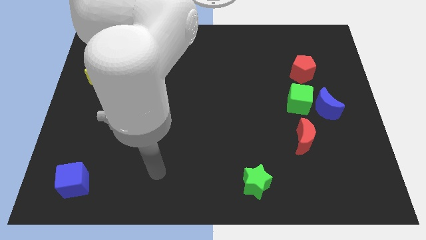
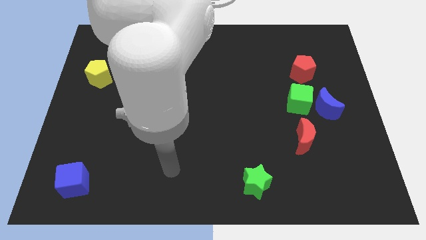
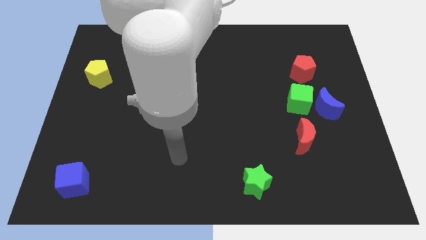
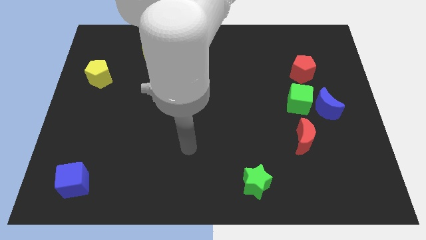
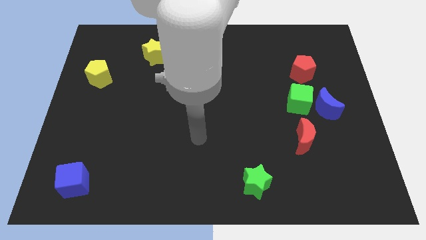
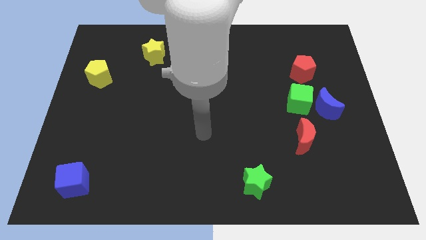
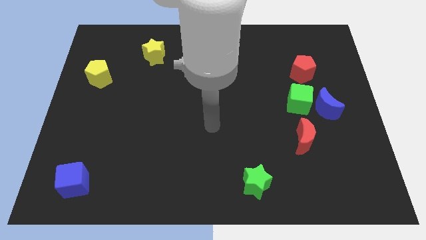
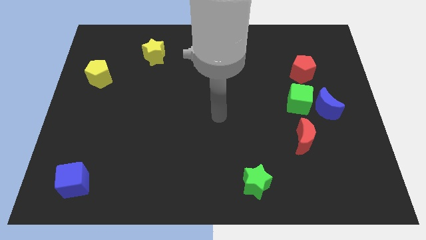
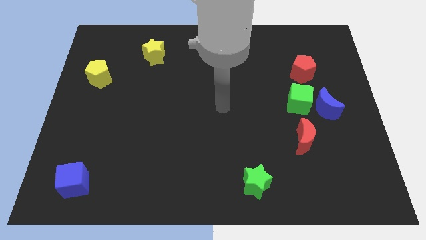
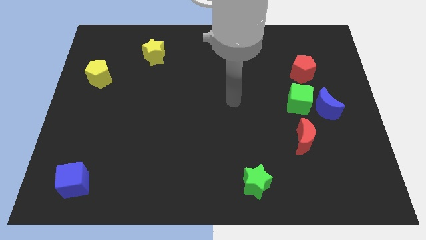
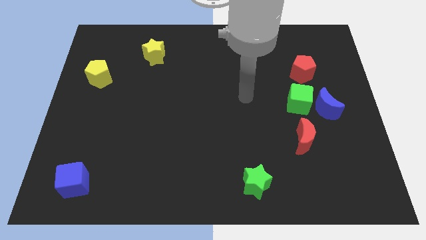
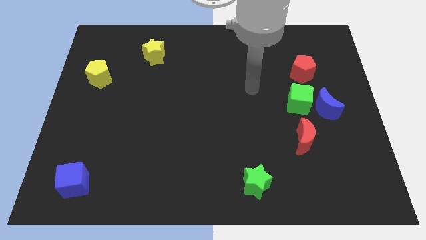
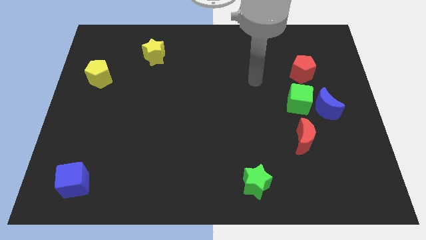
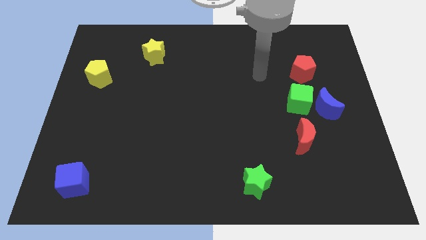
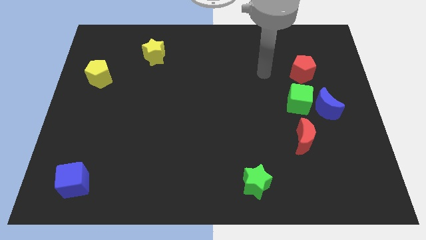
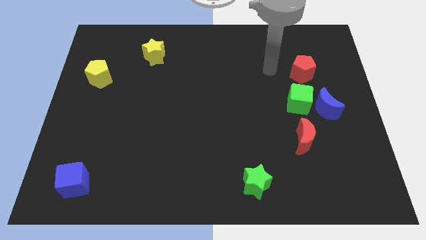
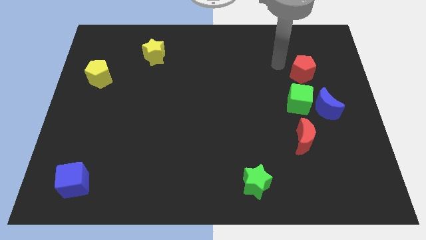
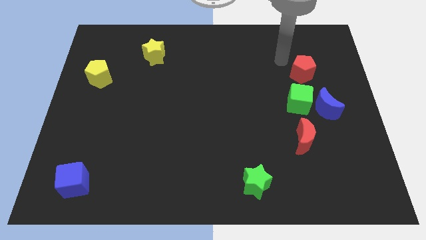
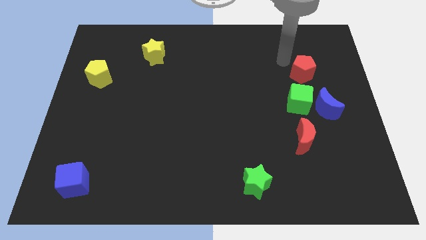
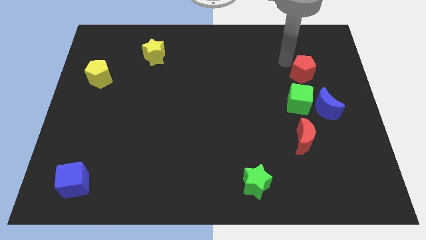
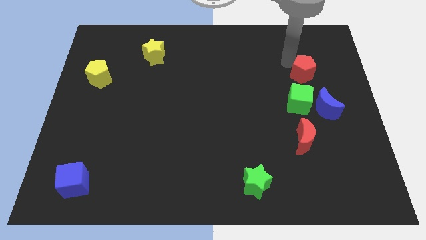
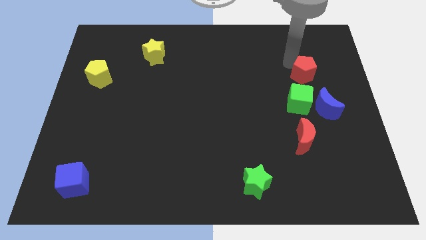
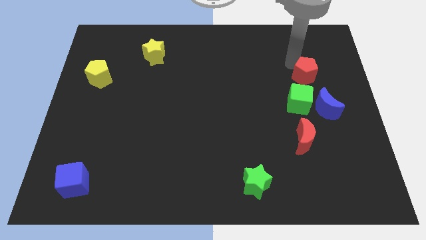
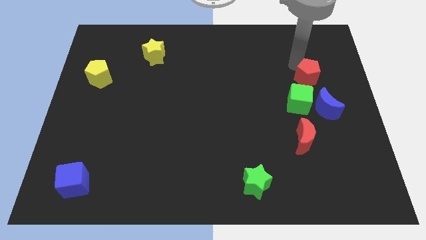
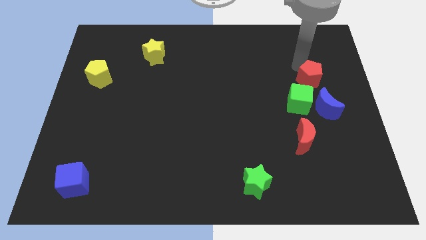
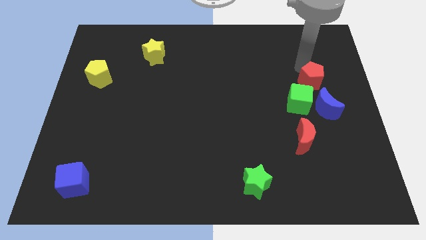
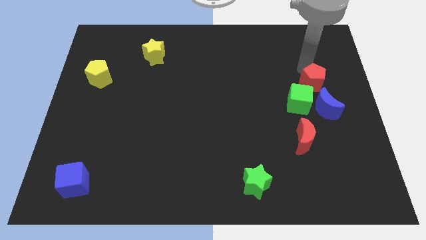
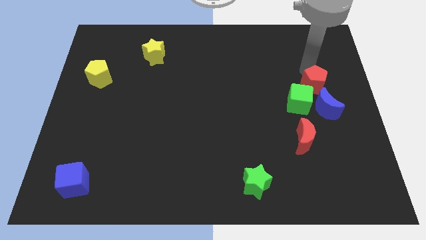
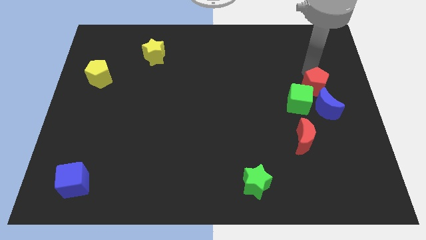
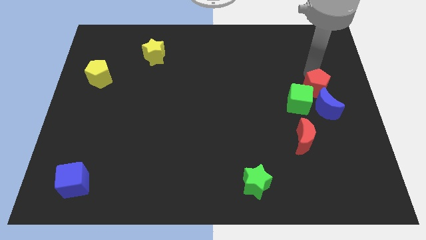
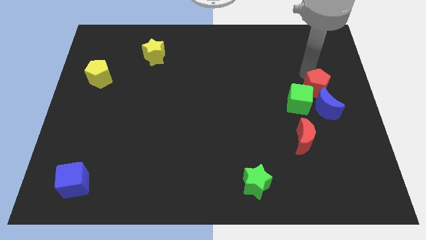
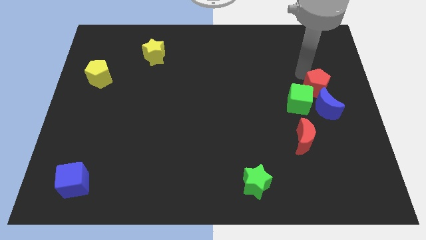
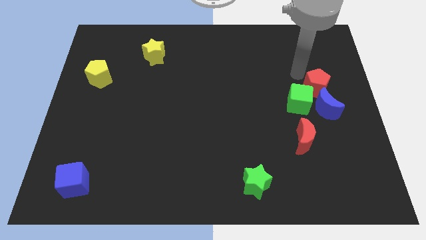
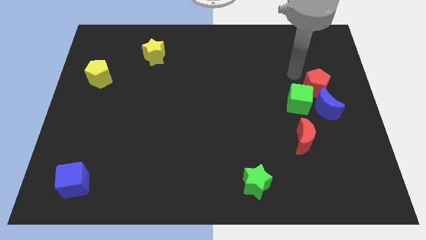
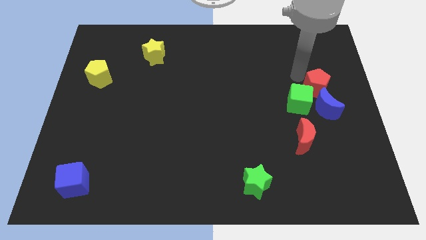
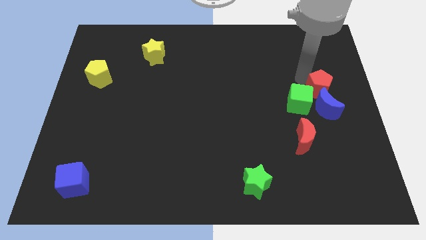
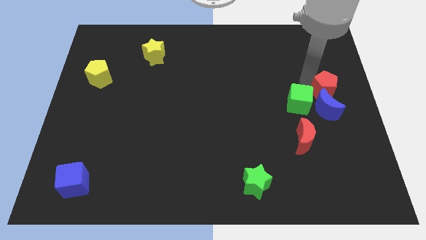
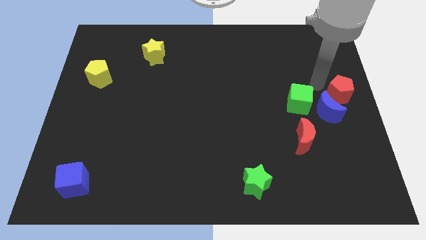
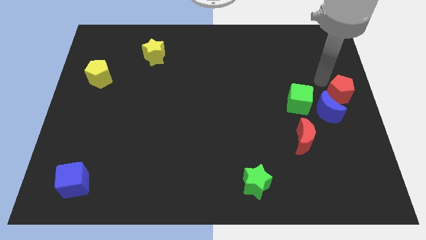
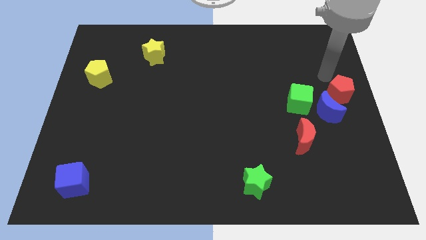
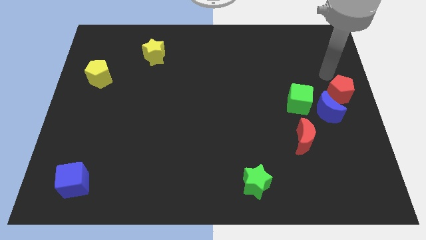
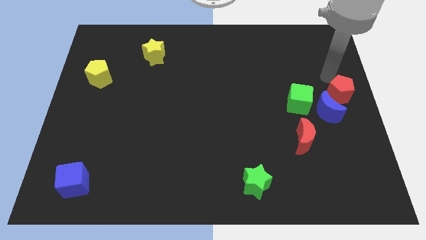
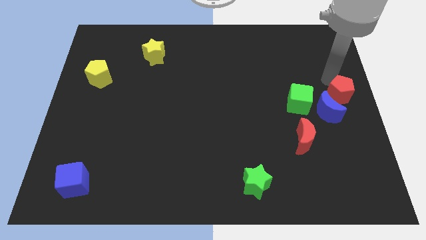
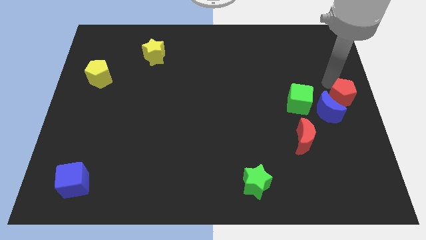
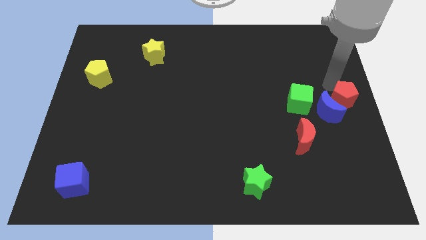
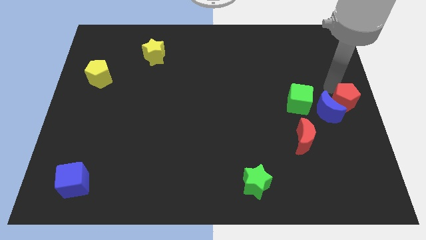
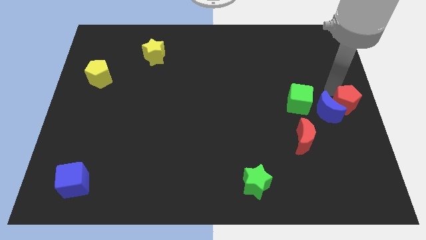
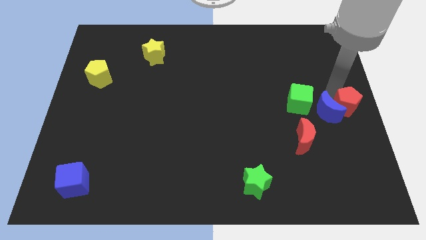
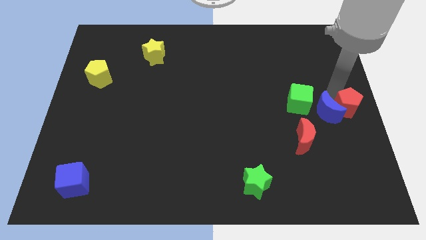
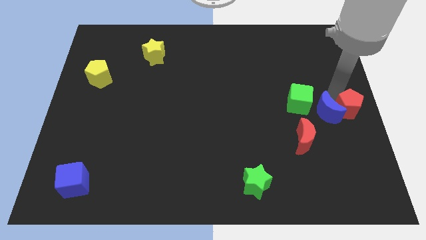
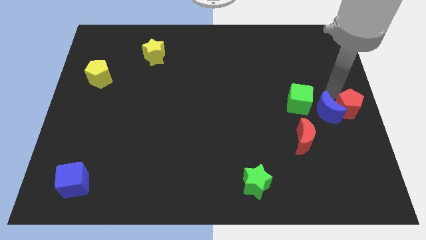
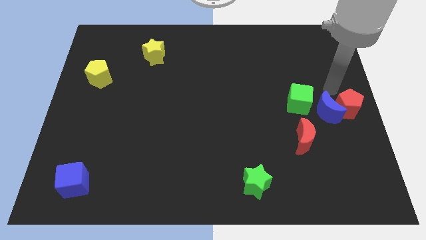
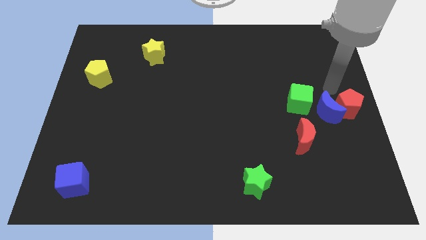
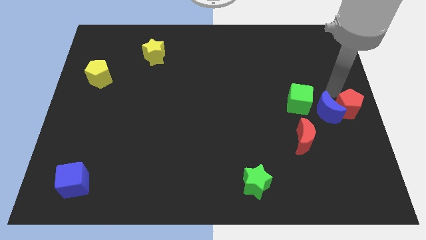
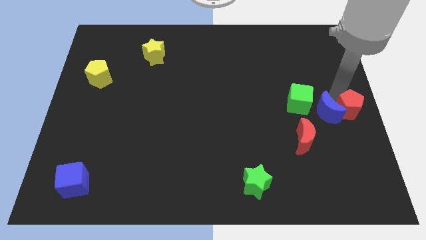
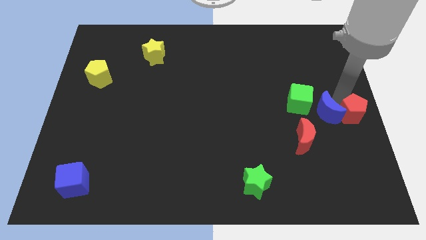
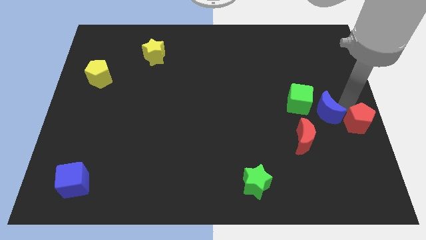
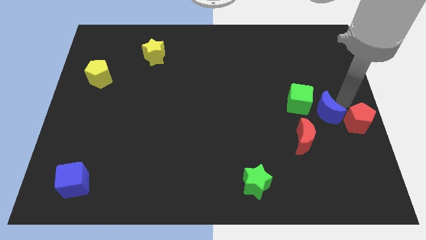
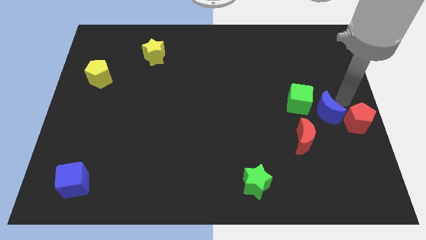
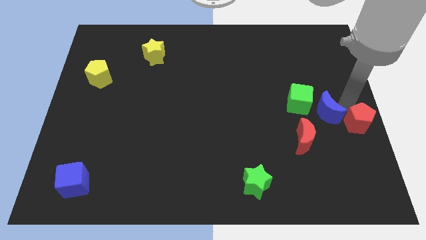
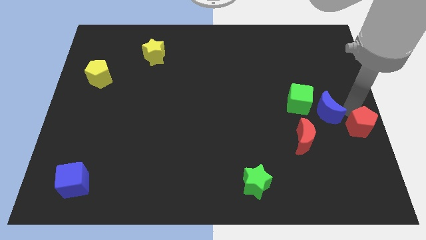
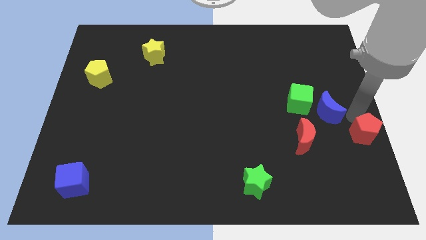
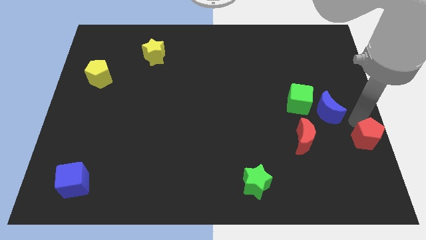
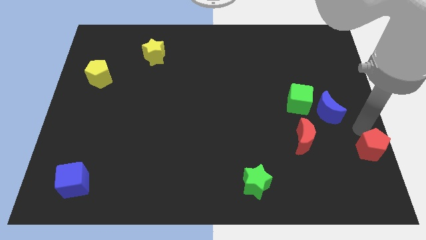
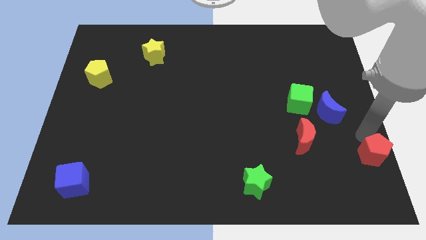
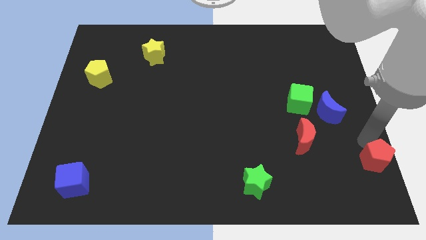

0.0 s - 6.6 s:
put the red pentagon to the bottom right of the board
